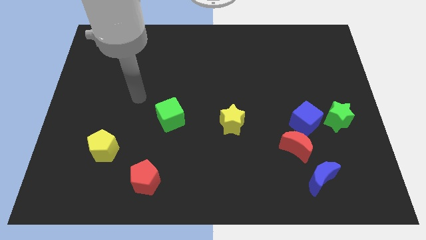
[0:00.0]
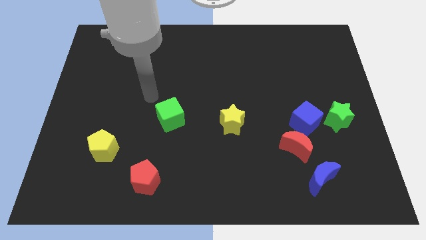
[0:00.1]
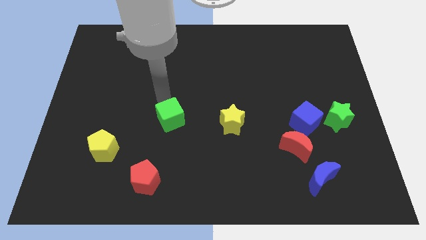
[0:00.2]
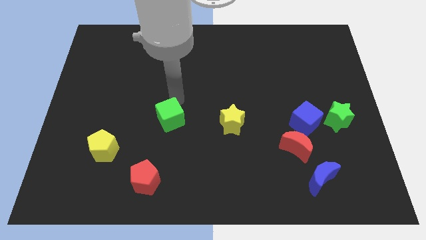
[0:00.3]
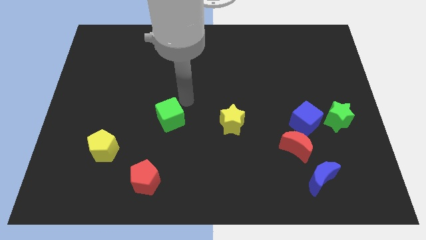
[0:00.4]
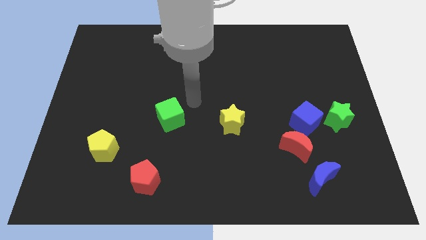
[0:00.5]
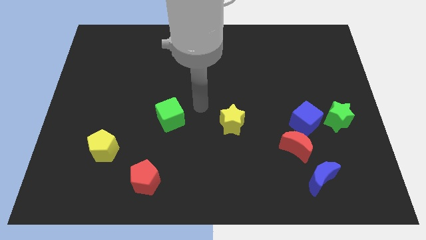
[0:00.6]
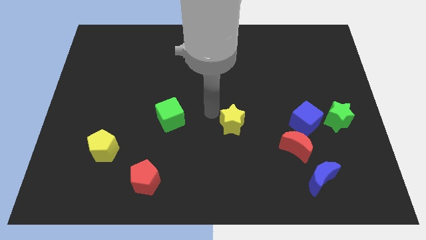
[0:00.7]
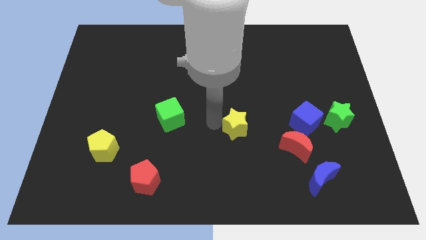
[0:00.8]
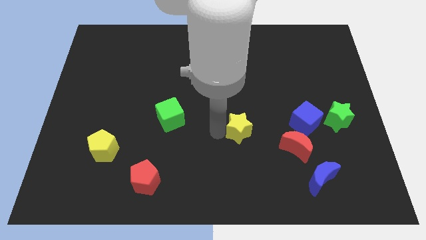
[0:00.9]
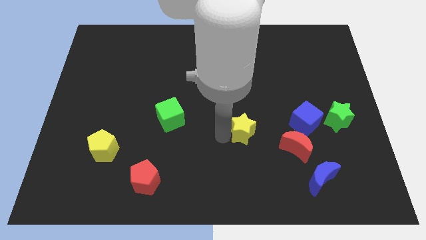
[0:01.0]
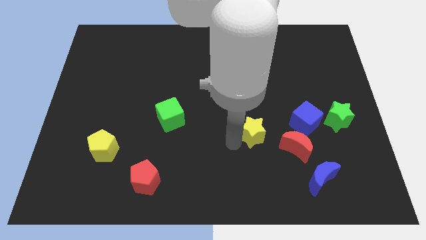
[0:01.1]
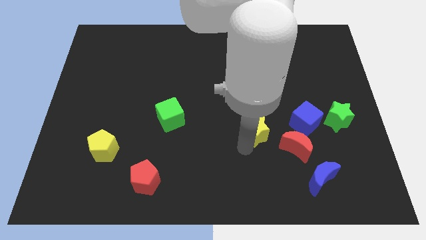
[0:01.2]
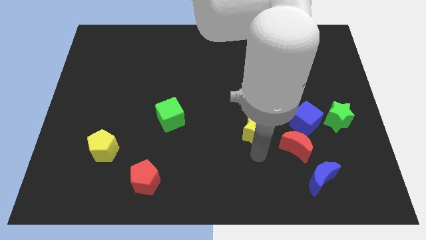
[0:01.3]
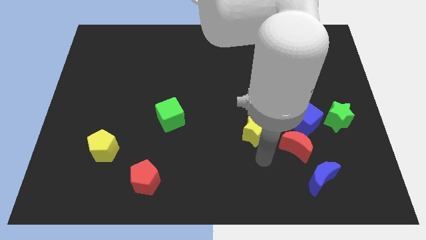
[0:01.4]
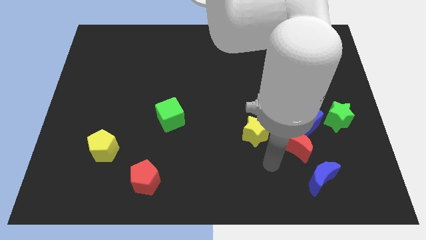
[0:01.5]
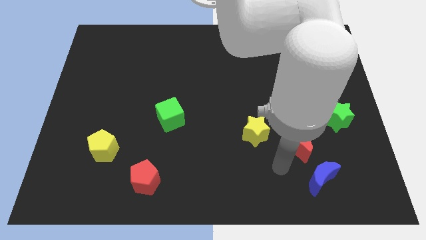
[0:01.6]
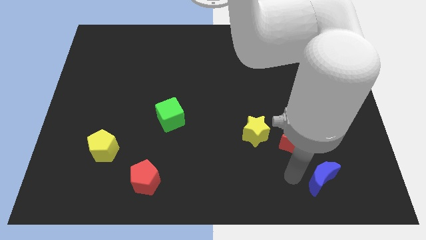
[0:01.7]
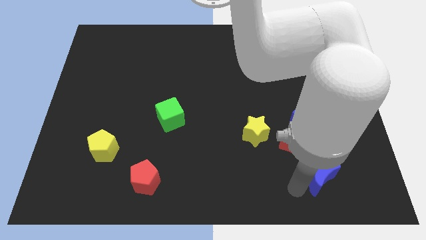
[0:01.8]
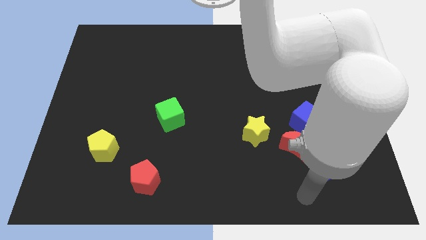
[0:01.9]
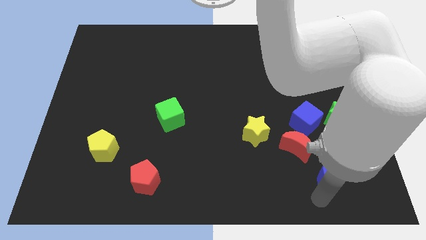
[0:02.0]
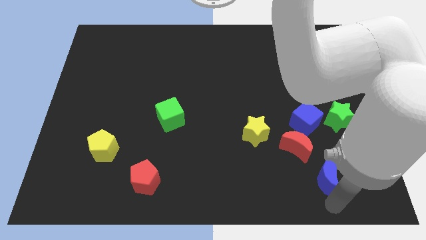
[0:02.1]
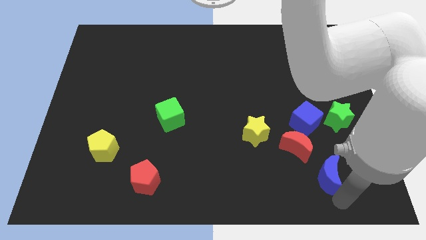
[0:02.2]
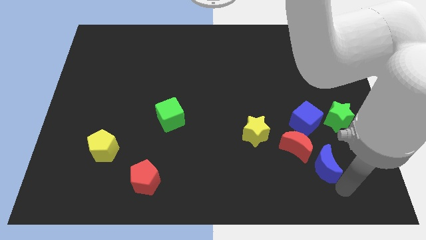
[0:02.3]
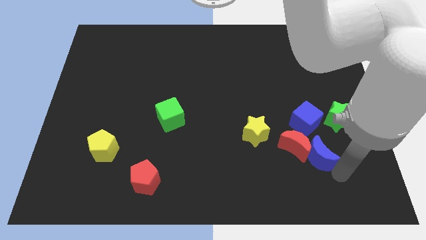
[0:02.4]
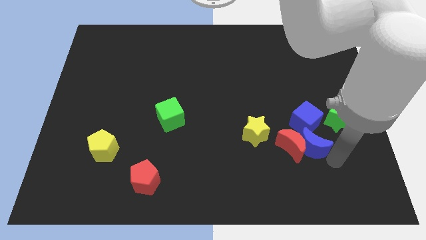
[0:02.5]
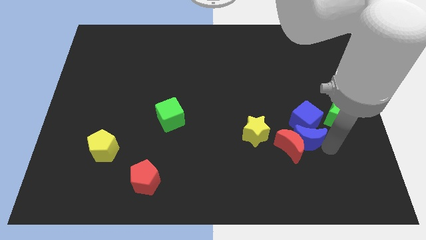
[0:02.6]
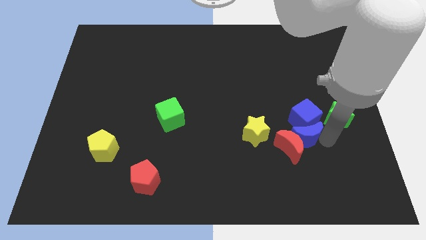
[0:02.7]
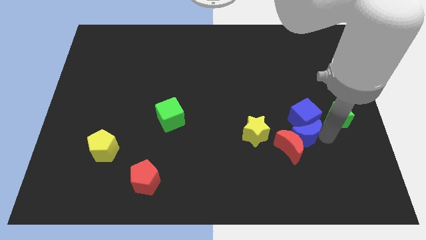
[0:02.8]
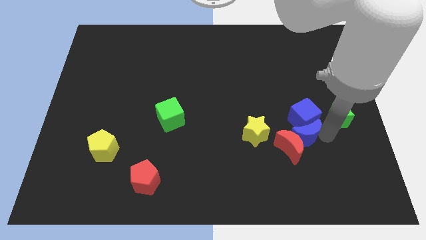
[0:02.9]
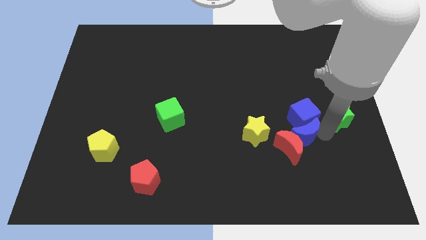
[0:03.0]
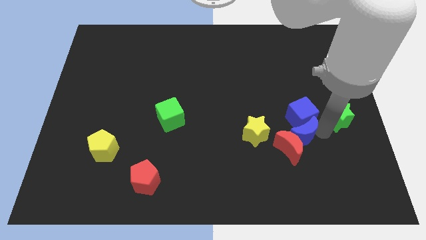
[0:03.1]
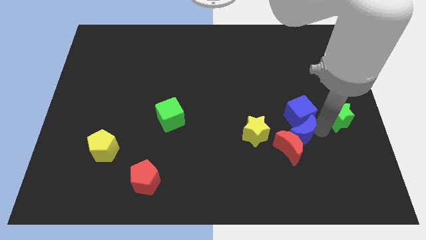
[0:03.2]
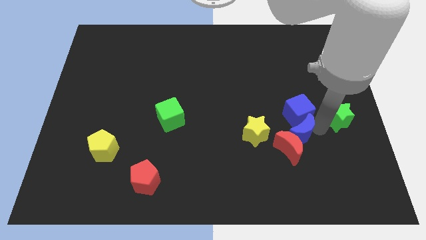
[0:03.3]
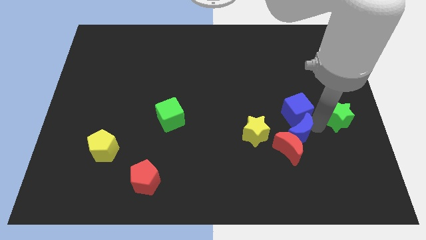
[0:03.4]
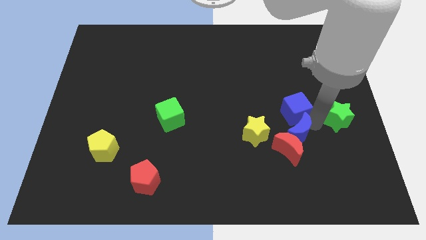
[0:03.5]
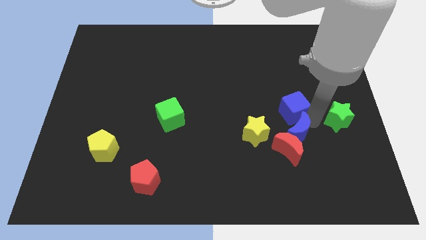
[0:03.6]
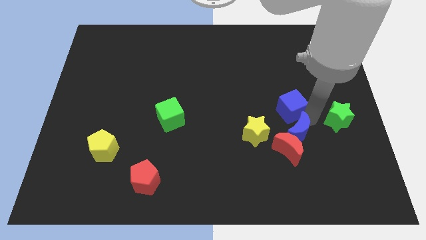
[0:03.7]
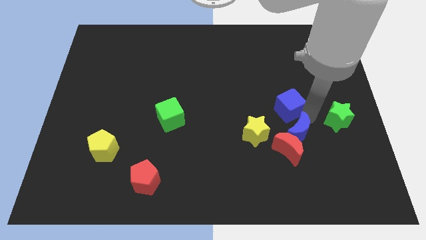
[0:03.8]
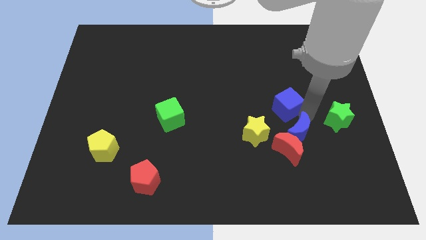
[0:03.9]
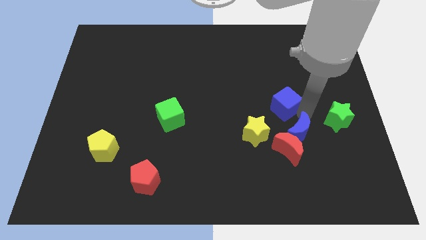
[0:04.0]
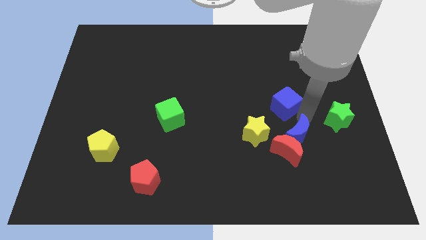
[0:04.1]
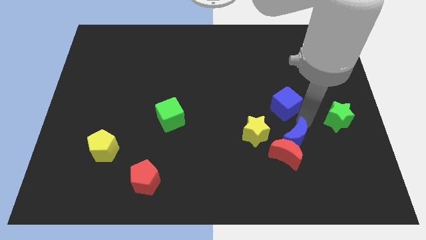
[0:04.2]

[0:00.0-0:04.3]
move the blue cube away from the red moon and green star

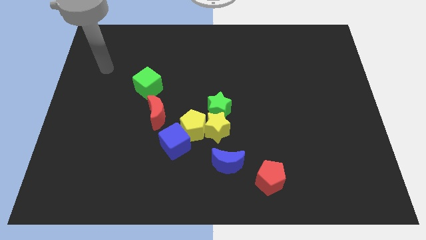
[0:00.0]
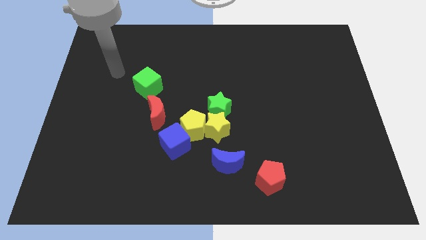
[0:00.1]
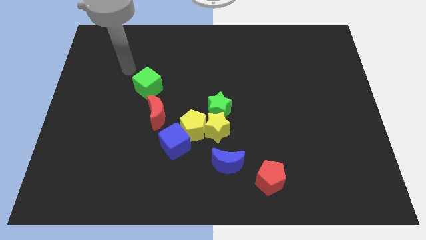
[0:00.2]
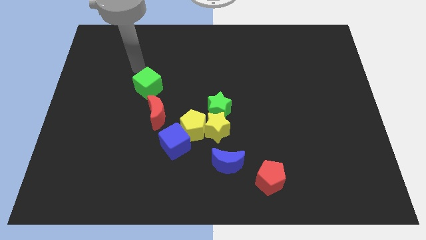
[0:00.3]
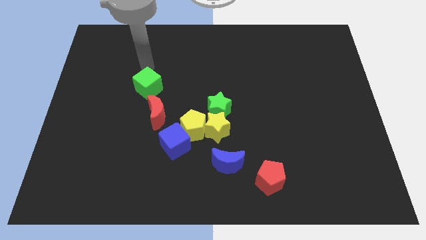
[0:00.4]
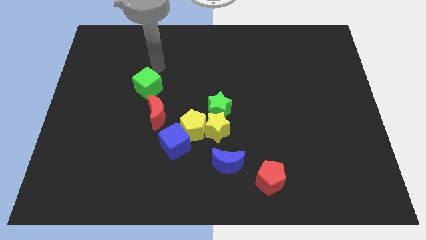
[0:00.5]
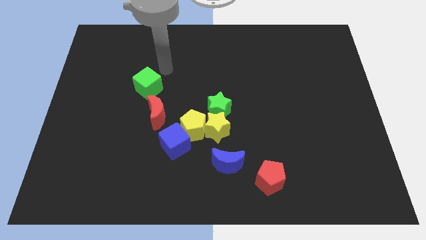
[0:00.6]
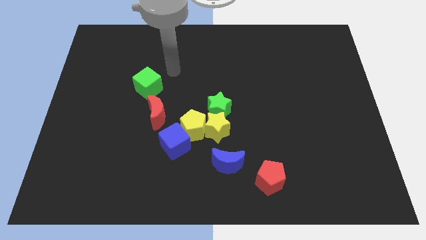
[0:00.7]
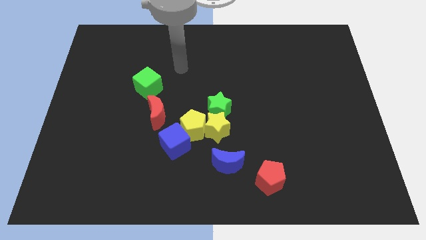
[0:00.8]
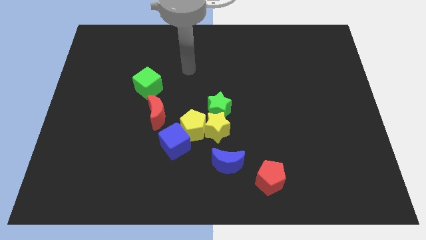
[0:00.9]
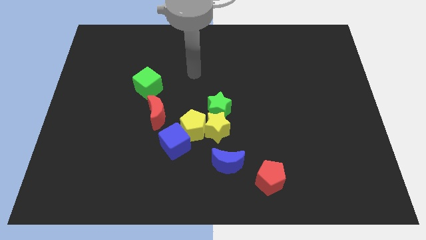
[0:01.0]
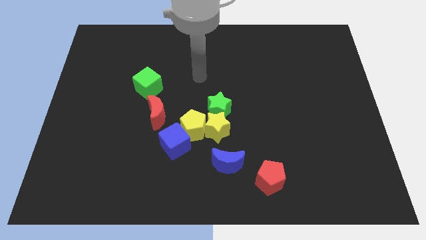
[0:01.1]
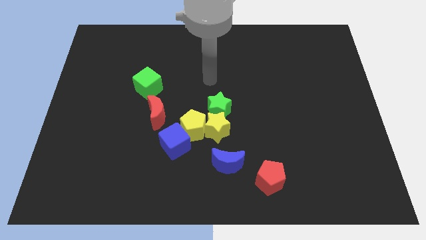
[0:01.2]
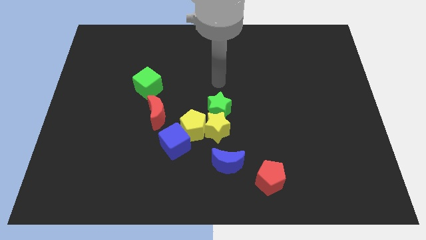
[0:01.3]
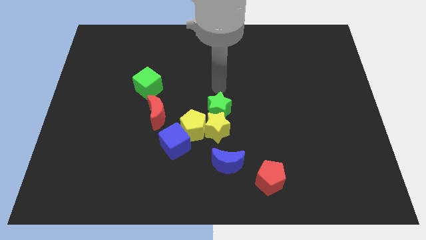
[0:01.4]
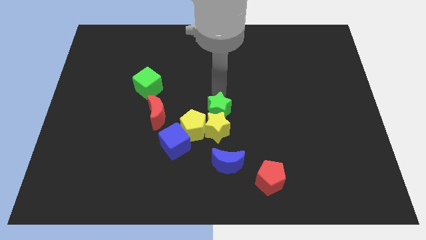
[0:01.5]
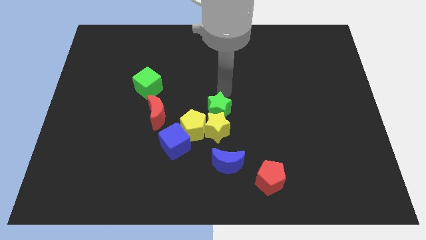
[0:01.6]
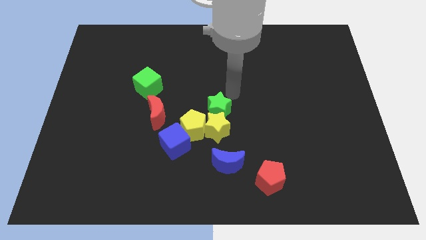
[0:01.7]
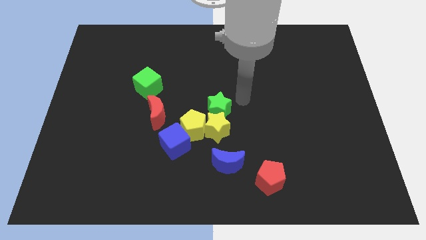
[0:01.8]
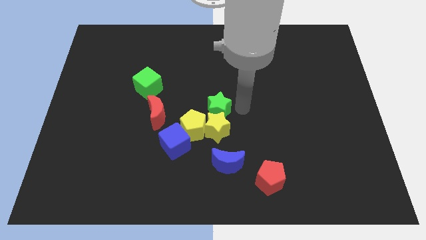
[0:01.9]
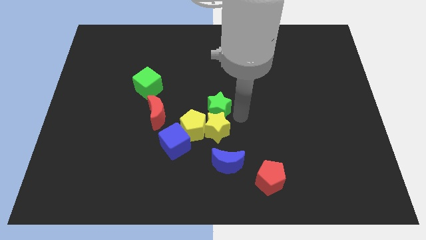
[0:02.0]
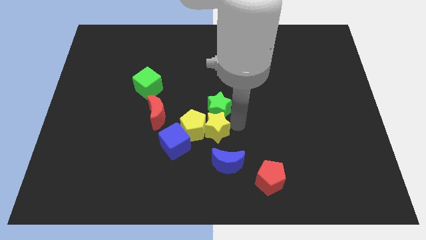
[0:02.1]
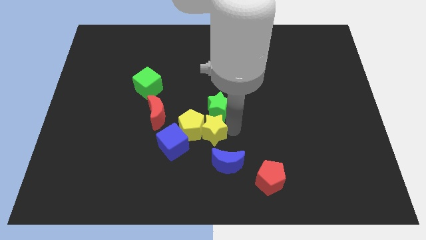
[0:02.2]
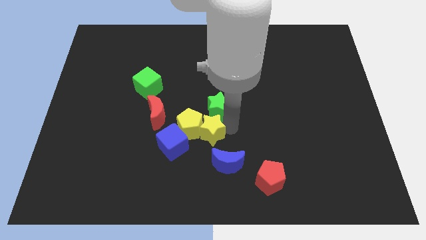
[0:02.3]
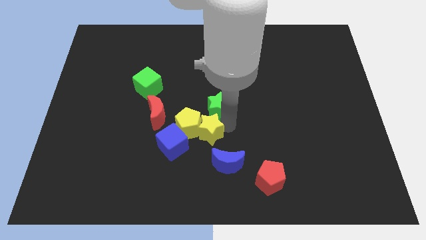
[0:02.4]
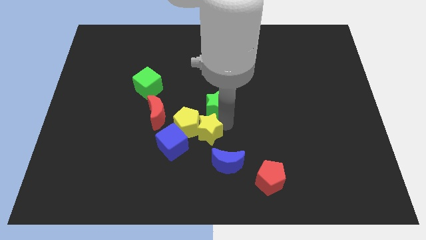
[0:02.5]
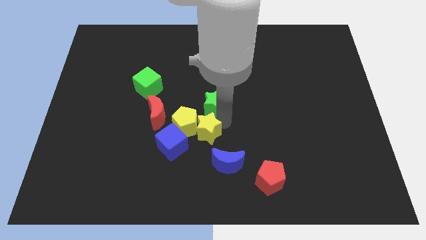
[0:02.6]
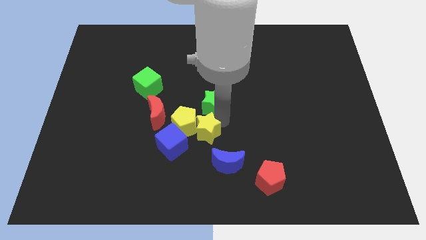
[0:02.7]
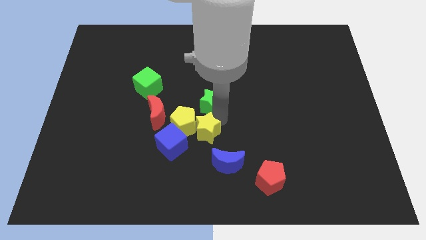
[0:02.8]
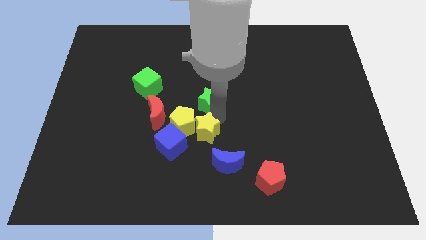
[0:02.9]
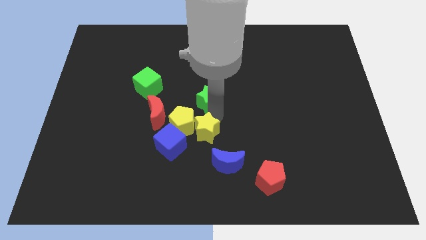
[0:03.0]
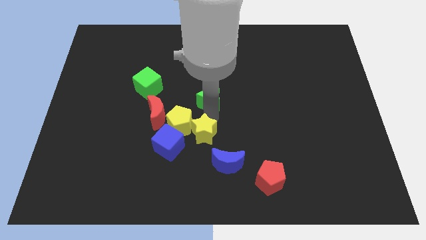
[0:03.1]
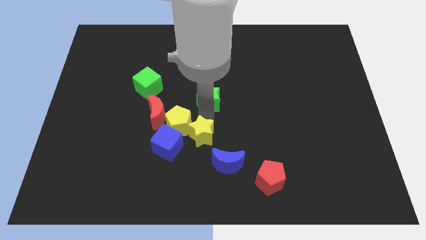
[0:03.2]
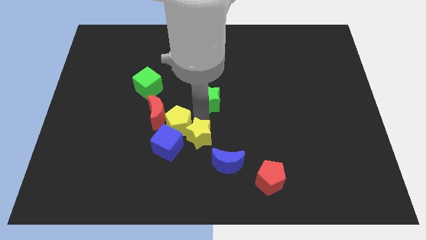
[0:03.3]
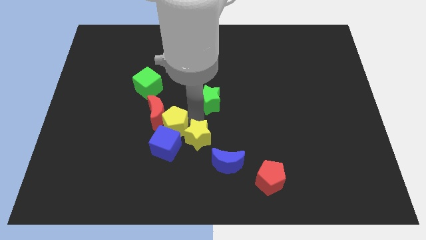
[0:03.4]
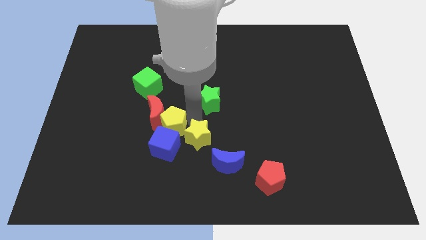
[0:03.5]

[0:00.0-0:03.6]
pull the green star apart from the yellow star and yellow pentagon

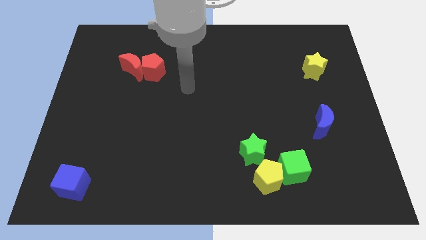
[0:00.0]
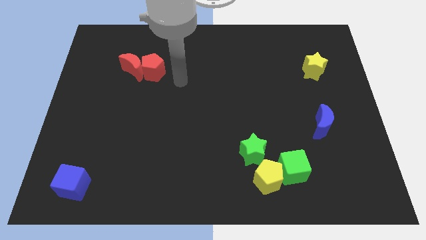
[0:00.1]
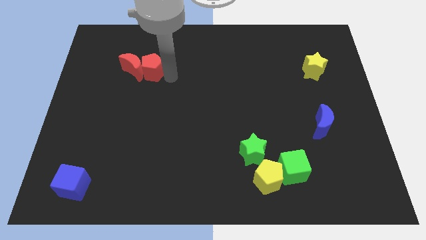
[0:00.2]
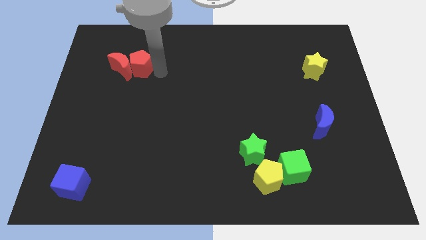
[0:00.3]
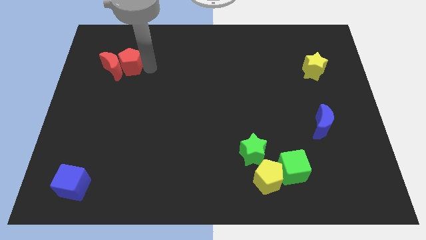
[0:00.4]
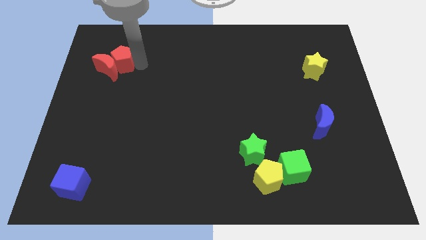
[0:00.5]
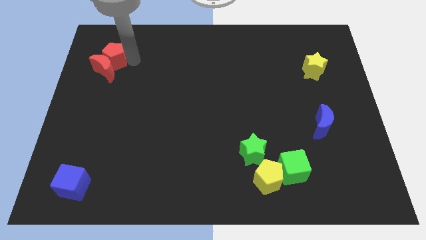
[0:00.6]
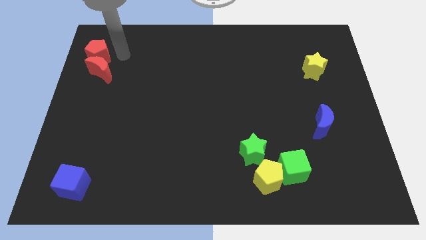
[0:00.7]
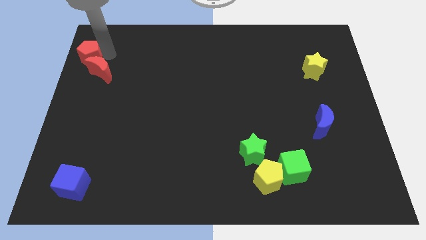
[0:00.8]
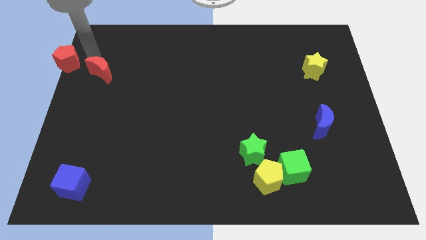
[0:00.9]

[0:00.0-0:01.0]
separate the red moon from the red pentagon

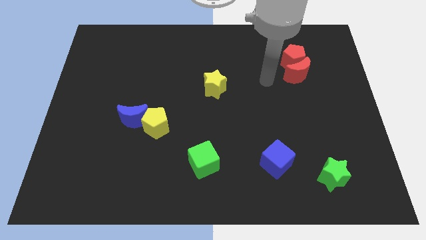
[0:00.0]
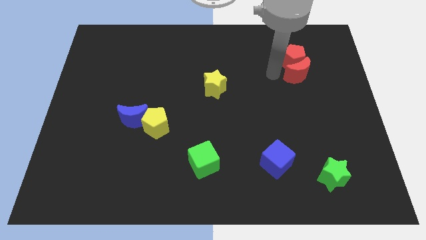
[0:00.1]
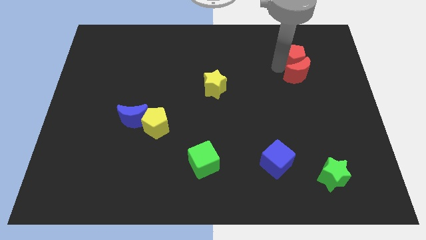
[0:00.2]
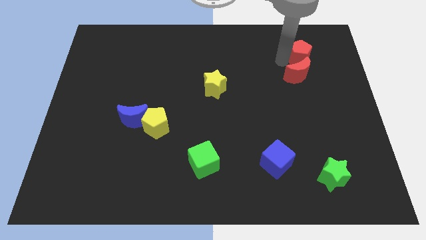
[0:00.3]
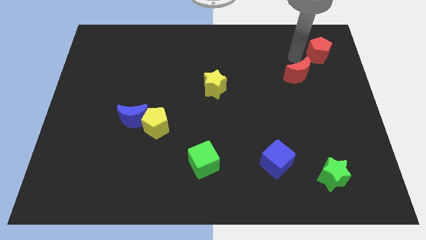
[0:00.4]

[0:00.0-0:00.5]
move the red moon away from the red pentagon
